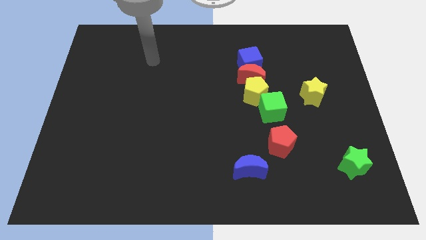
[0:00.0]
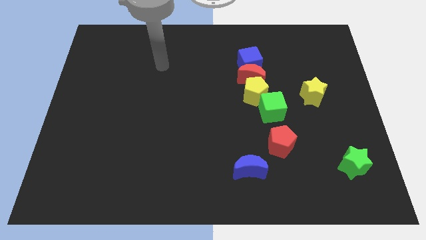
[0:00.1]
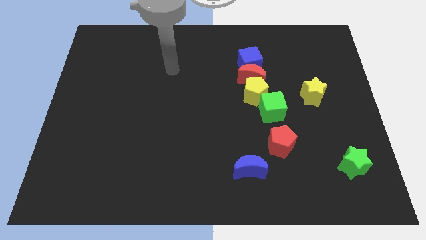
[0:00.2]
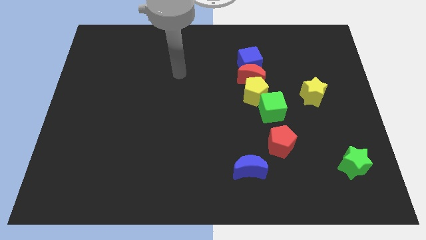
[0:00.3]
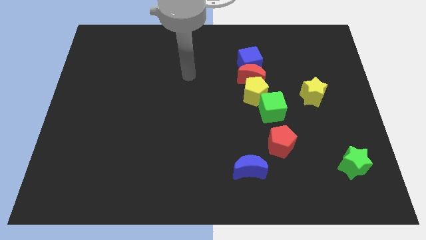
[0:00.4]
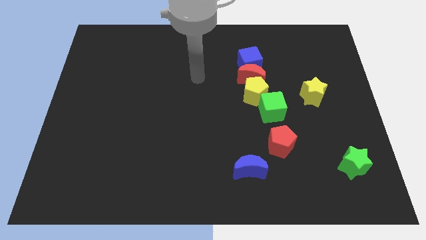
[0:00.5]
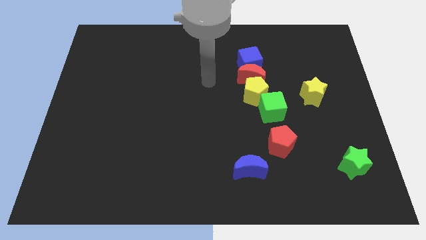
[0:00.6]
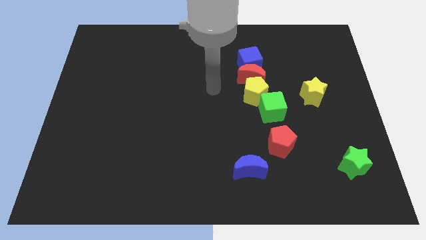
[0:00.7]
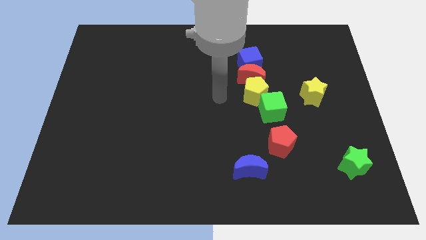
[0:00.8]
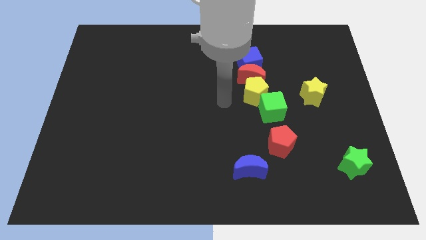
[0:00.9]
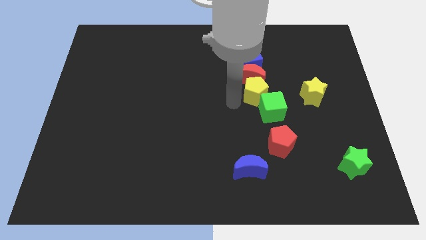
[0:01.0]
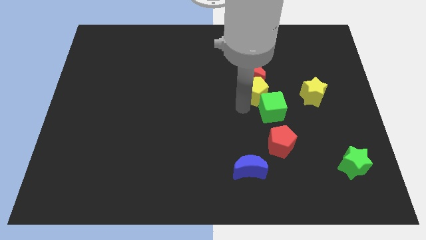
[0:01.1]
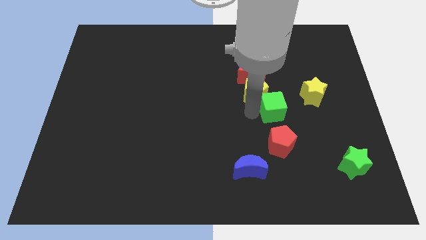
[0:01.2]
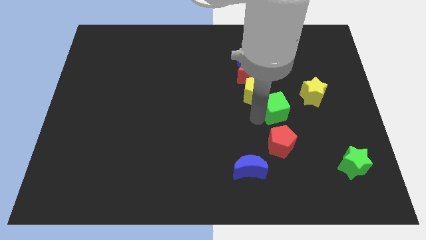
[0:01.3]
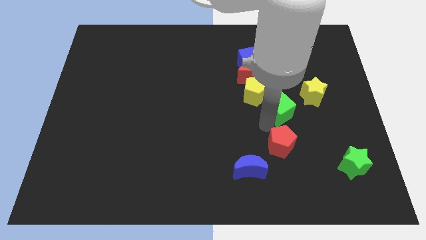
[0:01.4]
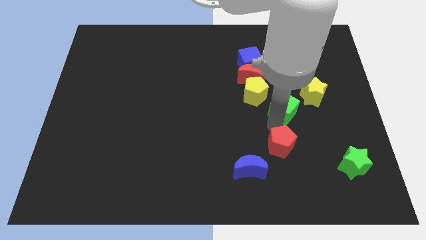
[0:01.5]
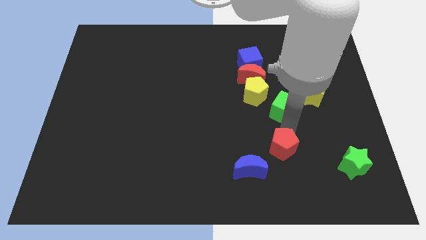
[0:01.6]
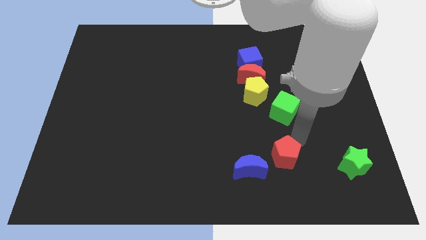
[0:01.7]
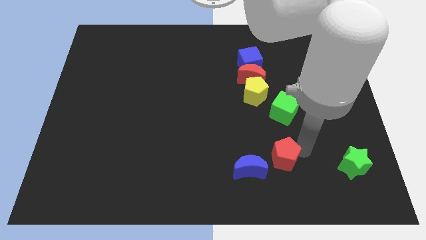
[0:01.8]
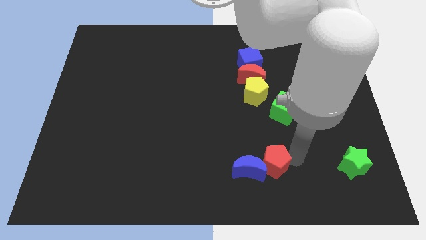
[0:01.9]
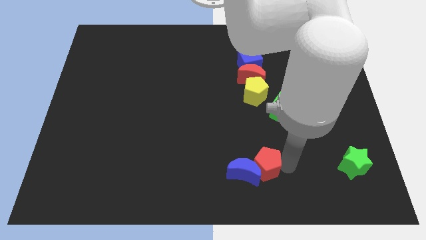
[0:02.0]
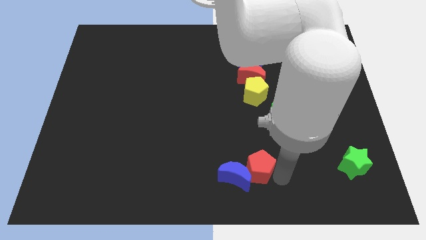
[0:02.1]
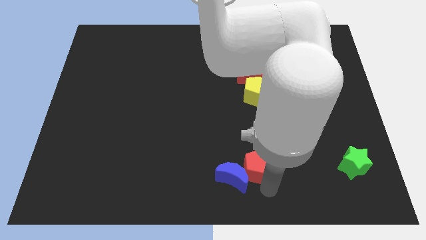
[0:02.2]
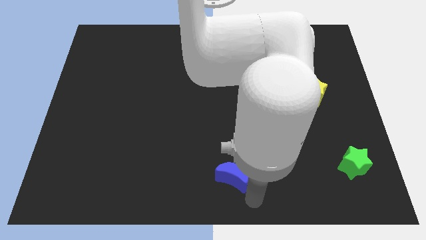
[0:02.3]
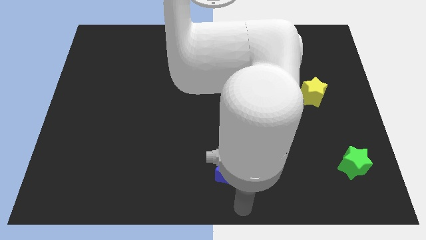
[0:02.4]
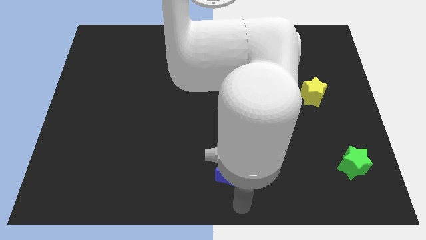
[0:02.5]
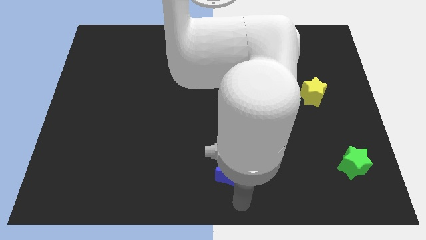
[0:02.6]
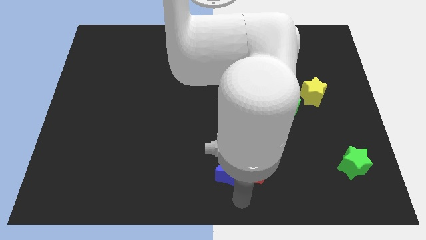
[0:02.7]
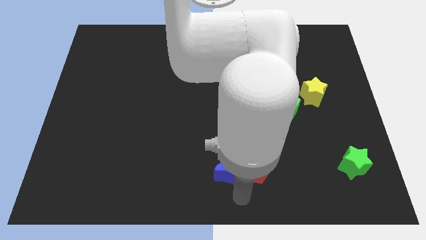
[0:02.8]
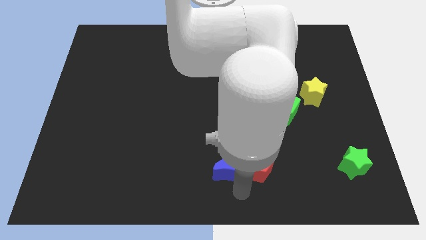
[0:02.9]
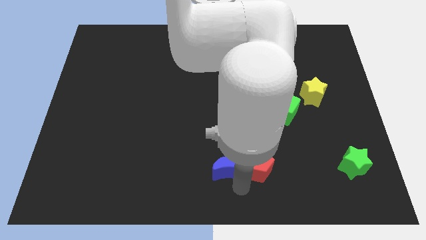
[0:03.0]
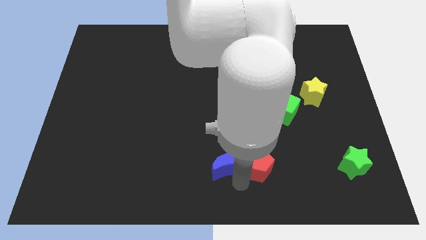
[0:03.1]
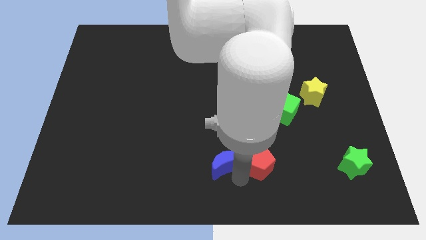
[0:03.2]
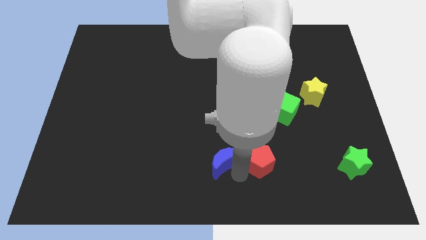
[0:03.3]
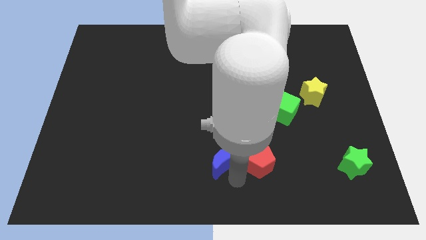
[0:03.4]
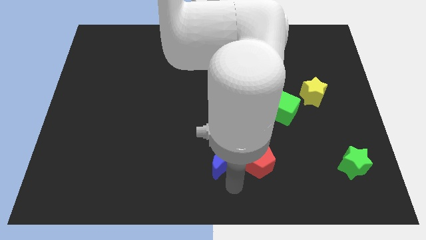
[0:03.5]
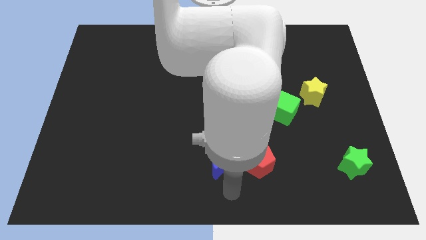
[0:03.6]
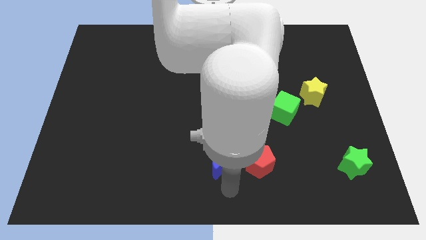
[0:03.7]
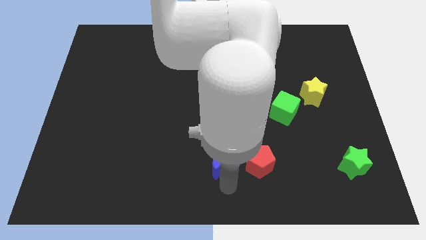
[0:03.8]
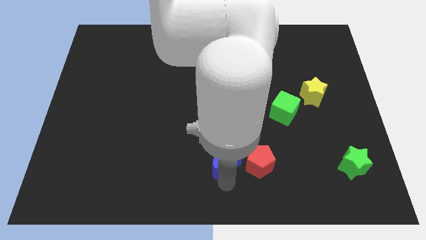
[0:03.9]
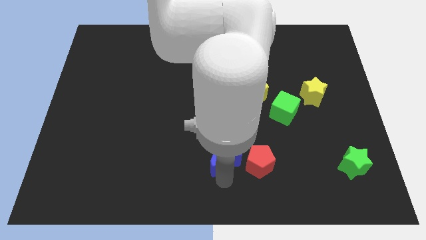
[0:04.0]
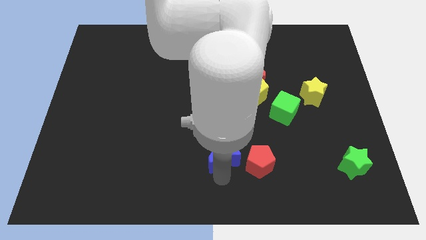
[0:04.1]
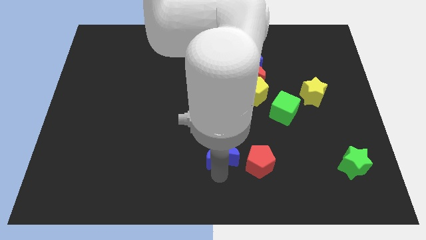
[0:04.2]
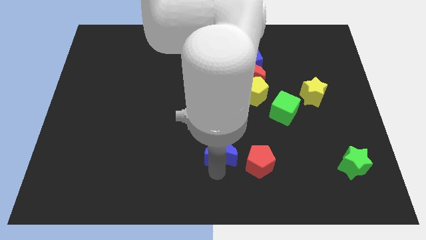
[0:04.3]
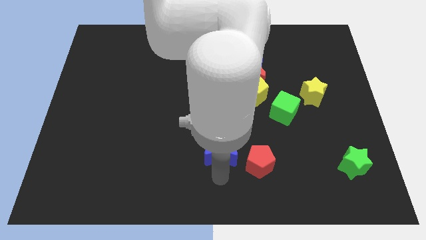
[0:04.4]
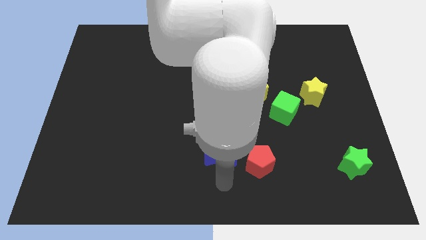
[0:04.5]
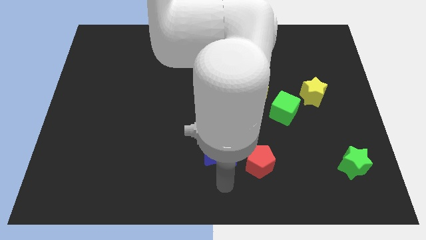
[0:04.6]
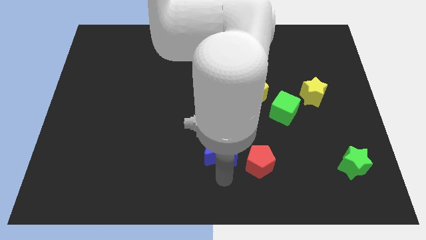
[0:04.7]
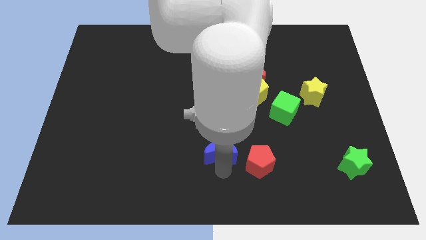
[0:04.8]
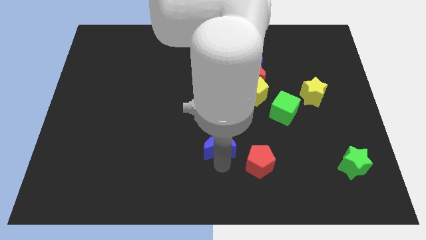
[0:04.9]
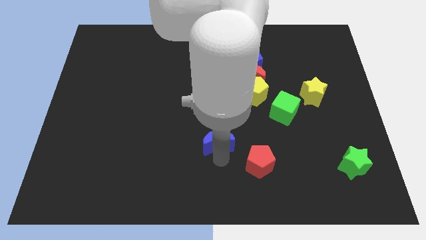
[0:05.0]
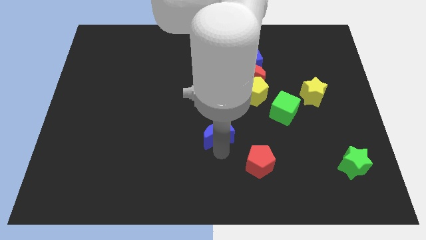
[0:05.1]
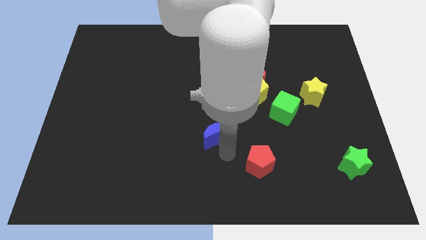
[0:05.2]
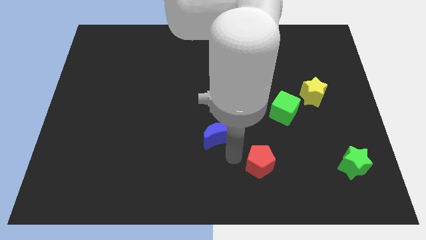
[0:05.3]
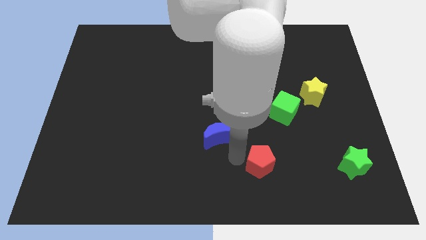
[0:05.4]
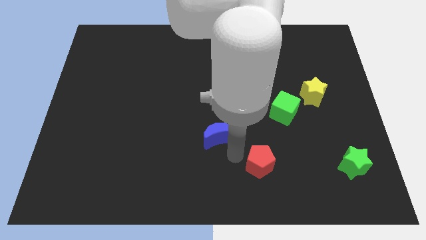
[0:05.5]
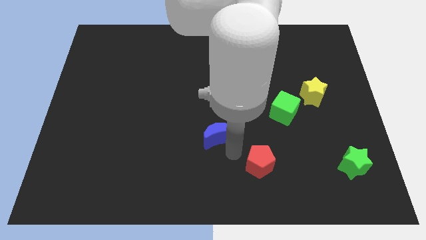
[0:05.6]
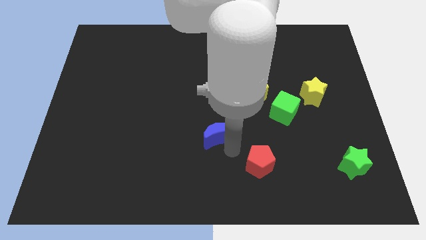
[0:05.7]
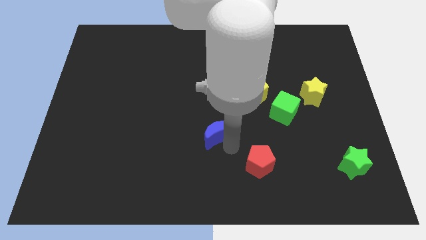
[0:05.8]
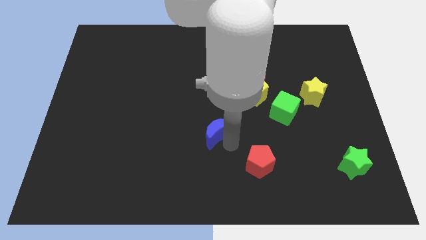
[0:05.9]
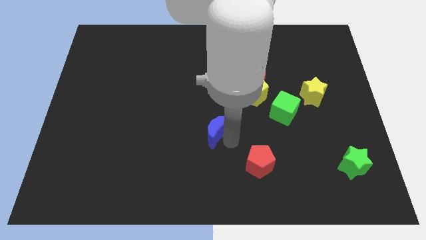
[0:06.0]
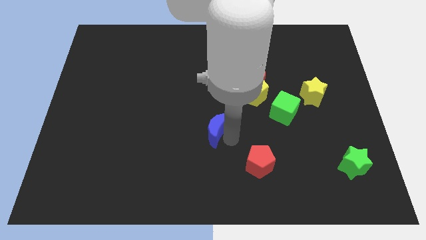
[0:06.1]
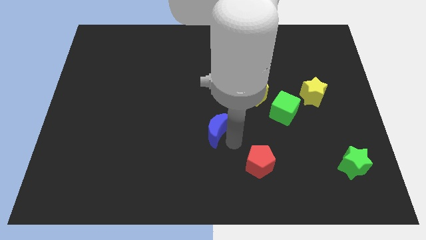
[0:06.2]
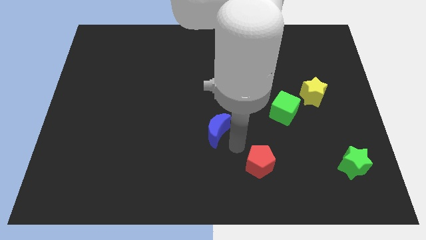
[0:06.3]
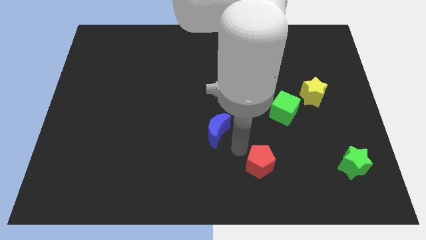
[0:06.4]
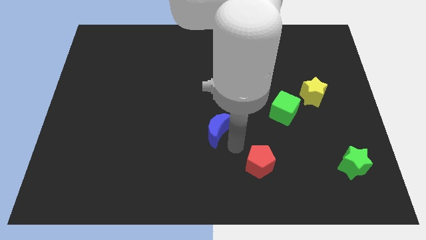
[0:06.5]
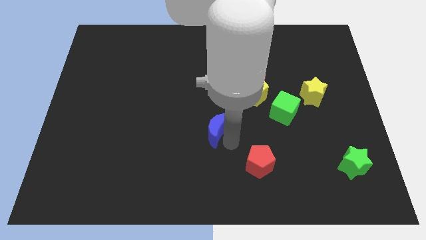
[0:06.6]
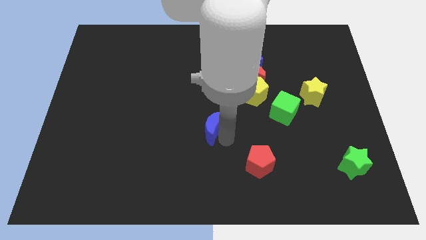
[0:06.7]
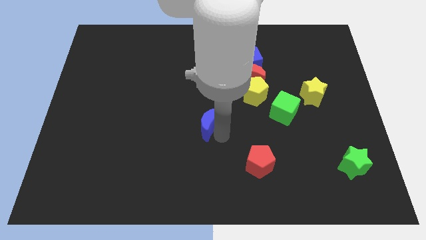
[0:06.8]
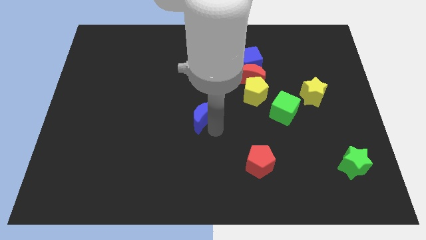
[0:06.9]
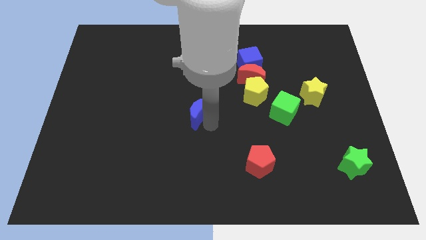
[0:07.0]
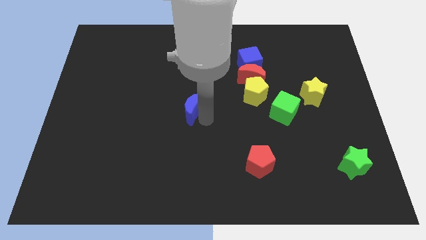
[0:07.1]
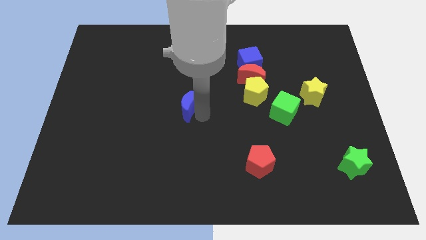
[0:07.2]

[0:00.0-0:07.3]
slide the blue moon up and to the left

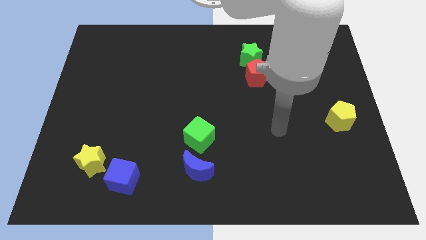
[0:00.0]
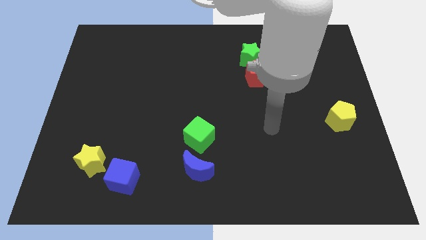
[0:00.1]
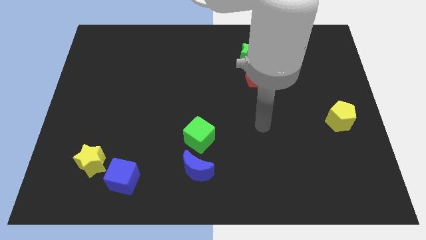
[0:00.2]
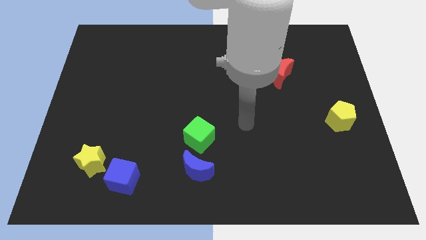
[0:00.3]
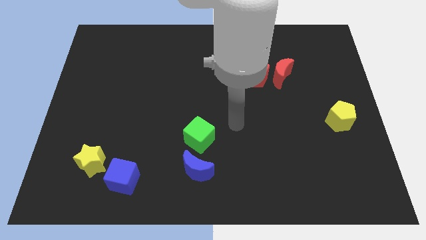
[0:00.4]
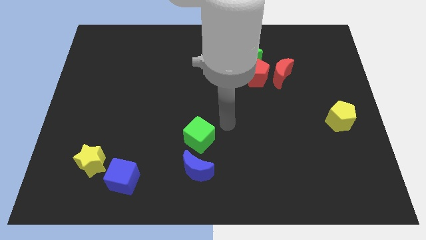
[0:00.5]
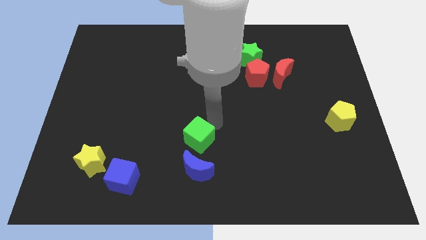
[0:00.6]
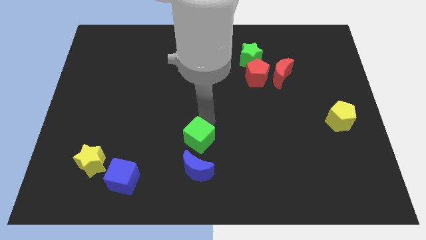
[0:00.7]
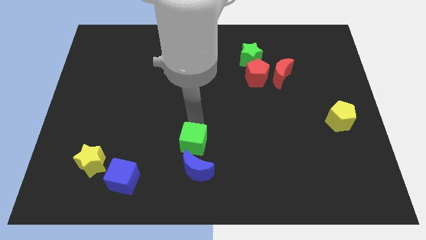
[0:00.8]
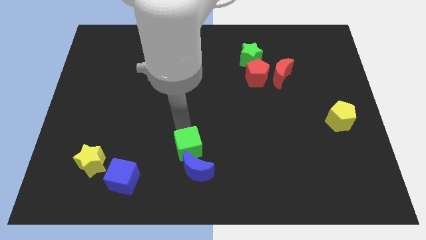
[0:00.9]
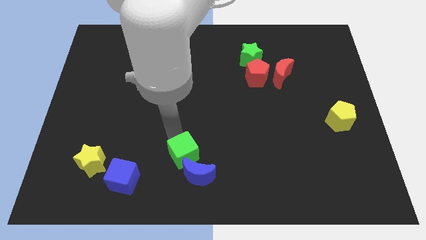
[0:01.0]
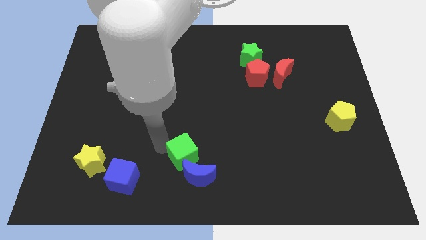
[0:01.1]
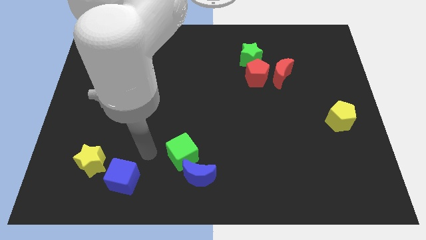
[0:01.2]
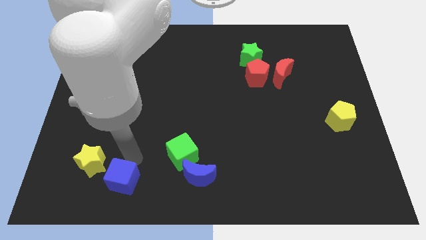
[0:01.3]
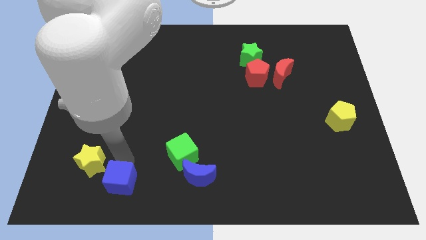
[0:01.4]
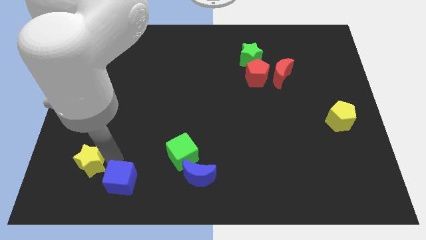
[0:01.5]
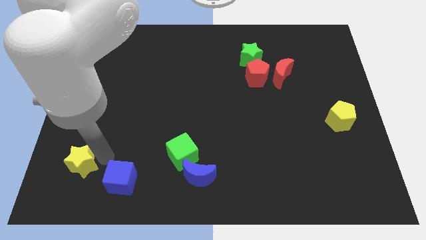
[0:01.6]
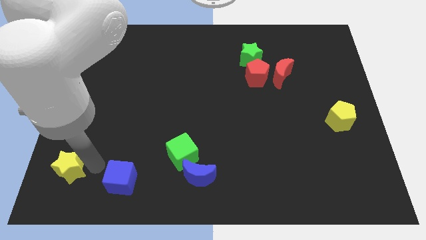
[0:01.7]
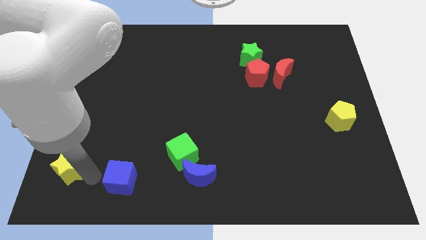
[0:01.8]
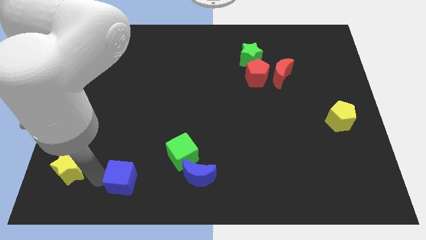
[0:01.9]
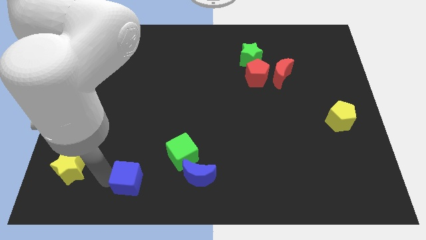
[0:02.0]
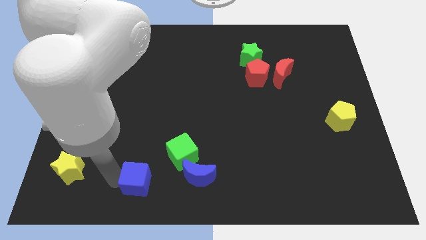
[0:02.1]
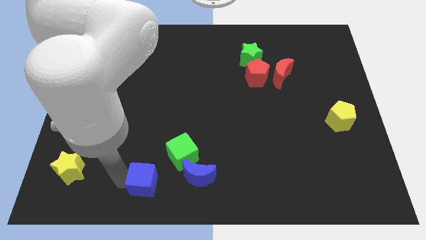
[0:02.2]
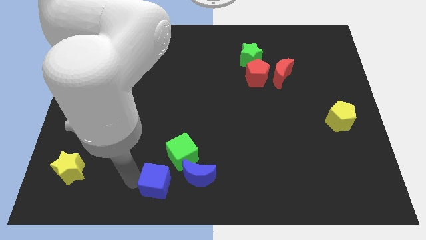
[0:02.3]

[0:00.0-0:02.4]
move the blue cube right a little bit
